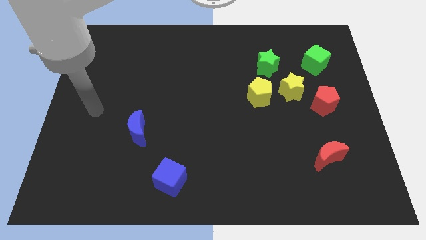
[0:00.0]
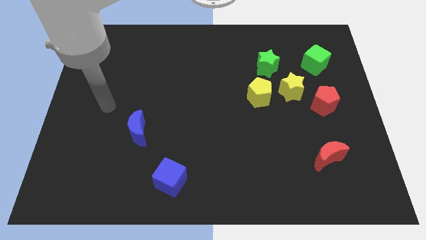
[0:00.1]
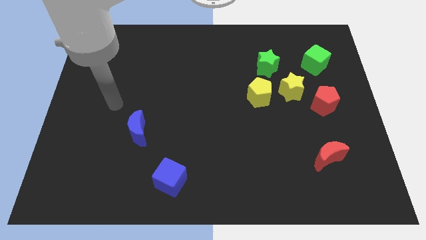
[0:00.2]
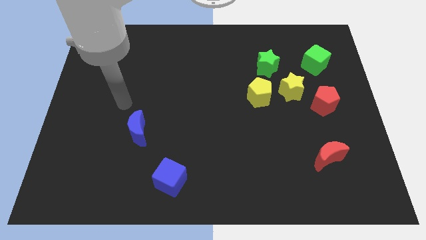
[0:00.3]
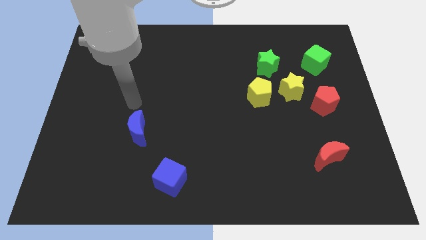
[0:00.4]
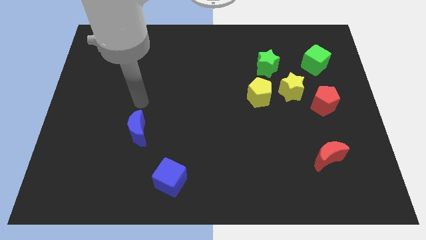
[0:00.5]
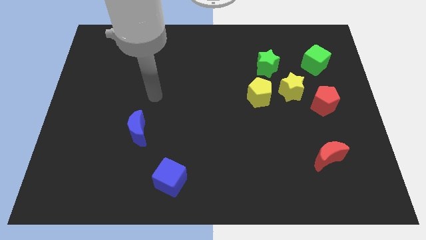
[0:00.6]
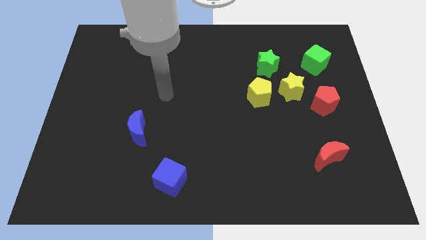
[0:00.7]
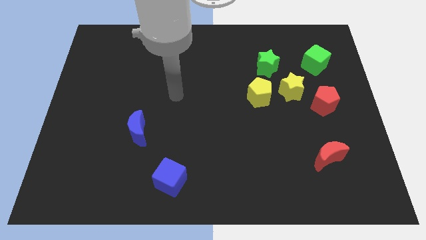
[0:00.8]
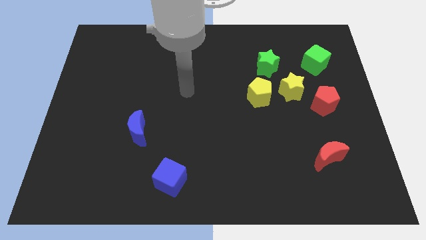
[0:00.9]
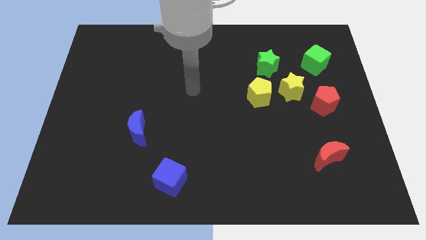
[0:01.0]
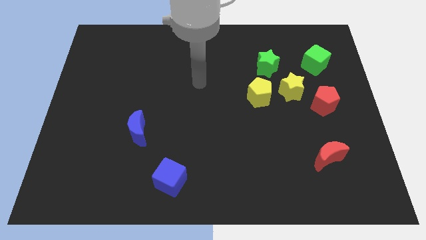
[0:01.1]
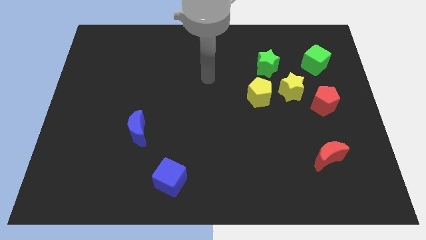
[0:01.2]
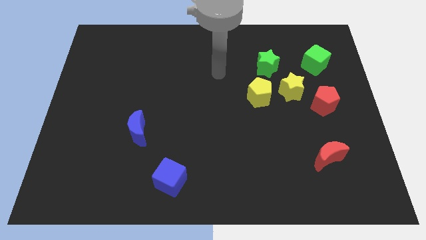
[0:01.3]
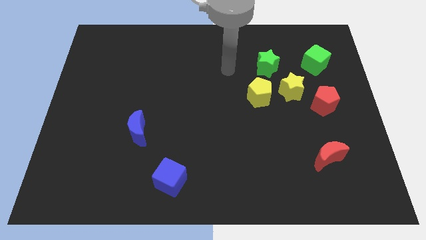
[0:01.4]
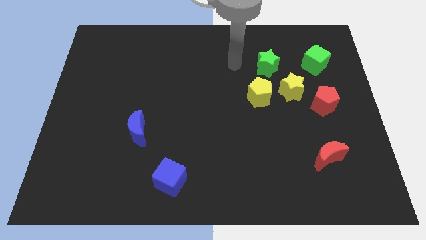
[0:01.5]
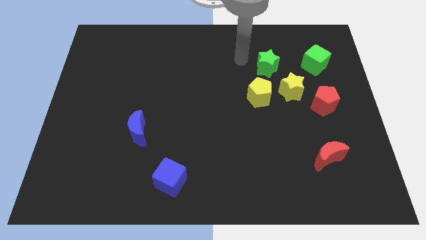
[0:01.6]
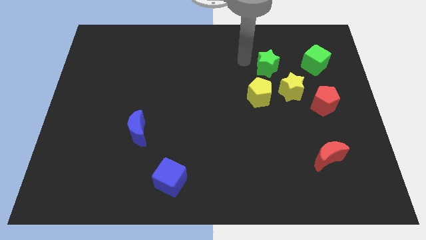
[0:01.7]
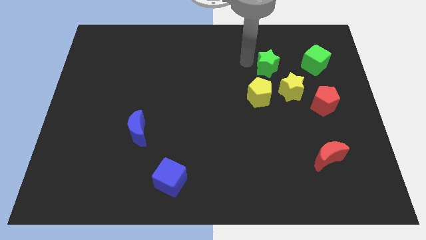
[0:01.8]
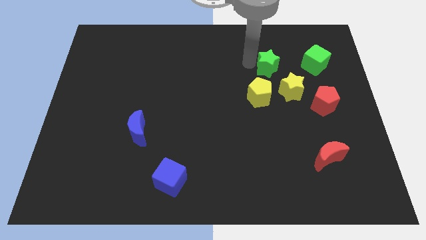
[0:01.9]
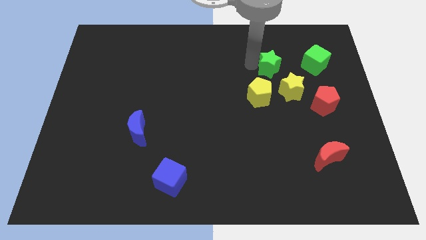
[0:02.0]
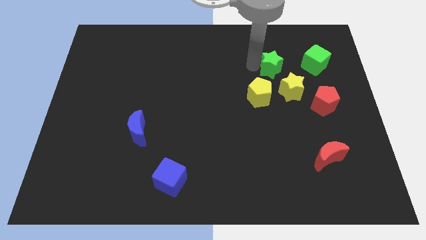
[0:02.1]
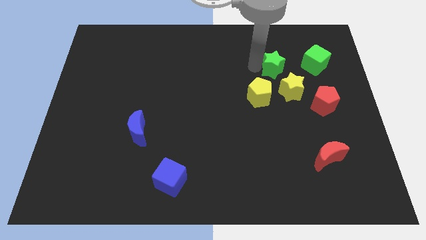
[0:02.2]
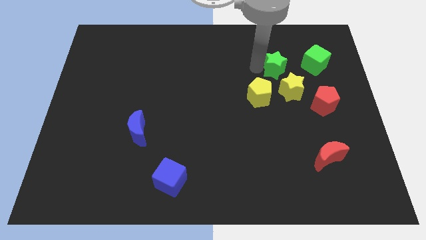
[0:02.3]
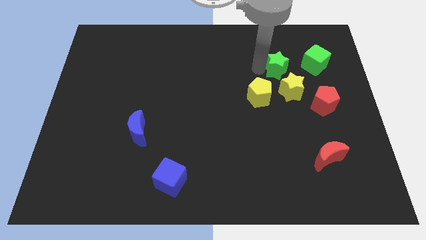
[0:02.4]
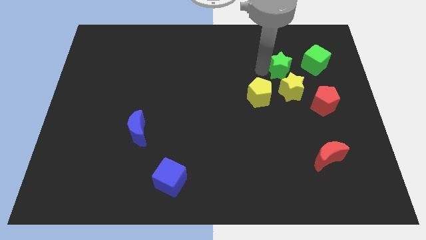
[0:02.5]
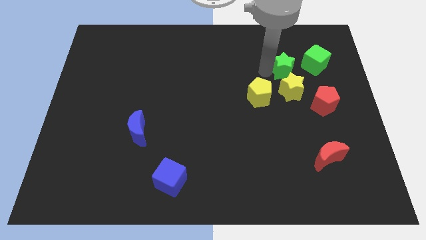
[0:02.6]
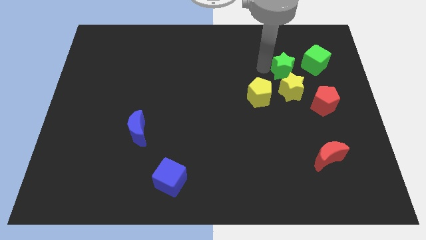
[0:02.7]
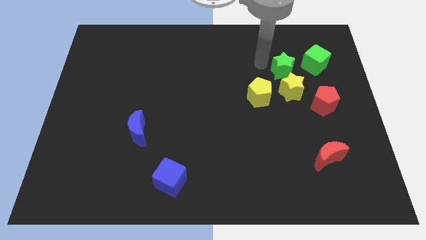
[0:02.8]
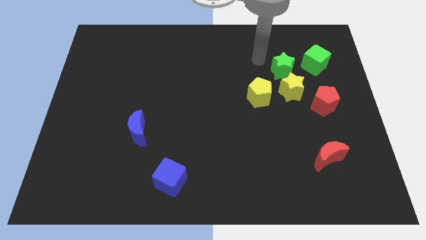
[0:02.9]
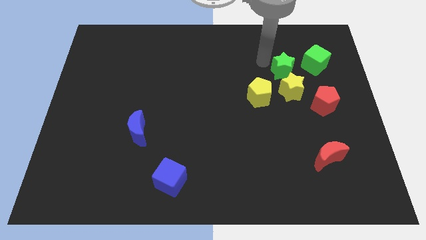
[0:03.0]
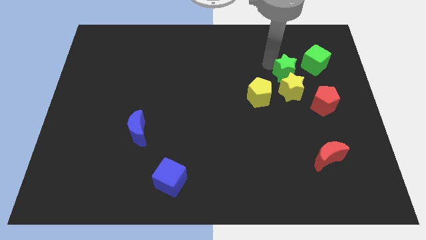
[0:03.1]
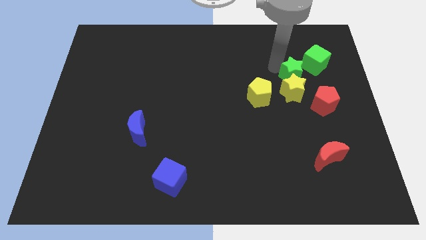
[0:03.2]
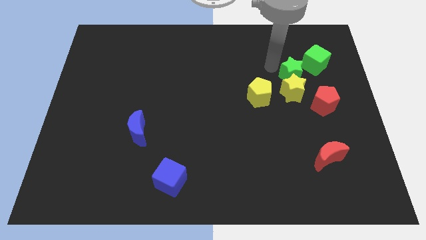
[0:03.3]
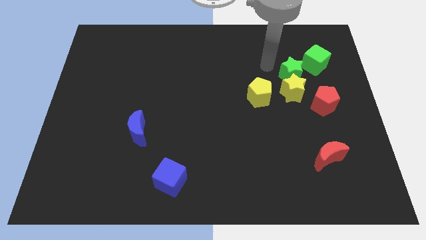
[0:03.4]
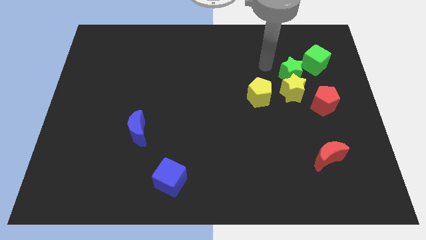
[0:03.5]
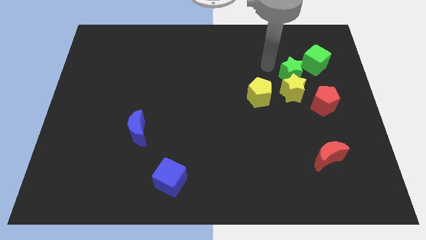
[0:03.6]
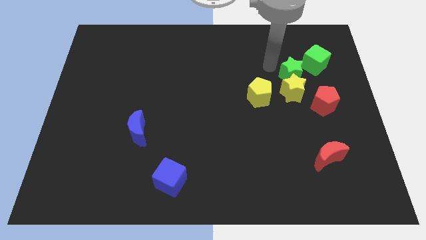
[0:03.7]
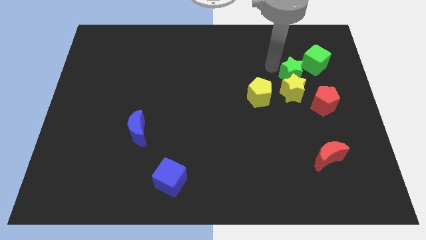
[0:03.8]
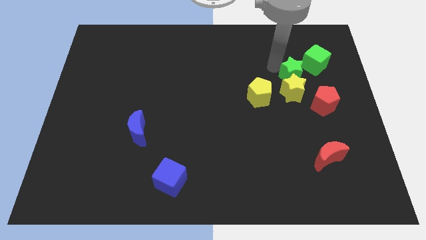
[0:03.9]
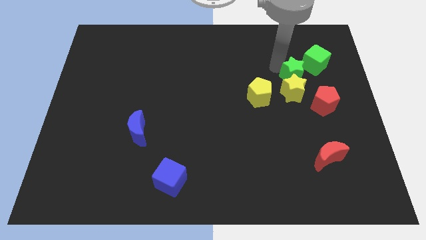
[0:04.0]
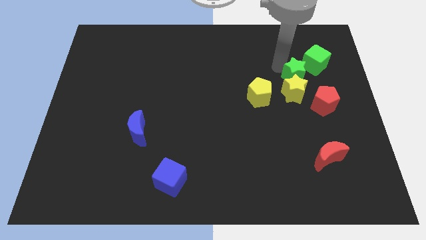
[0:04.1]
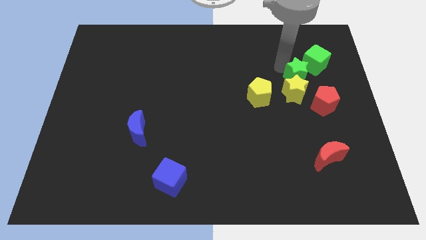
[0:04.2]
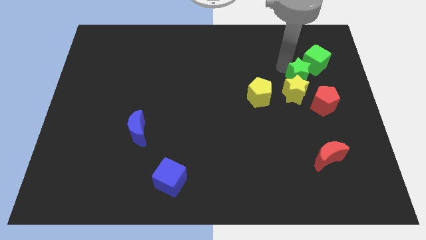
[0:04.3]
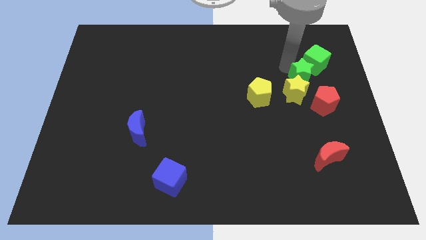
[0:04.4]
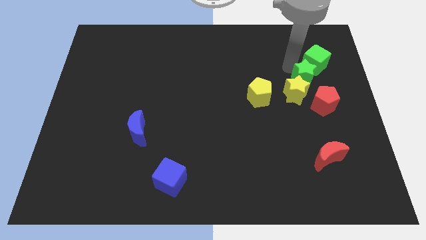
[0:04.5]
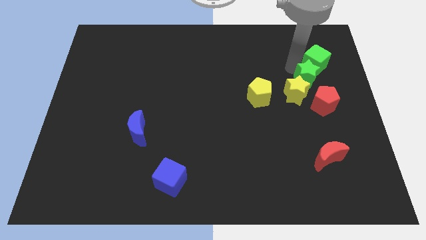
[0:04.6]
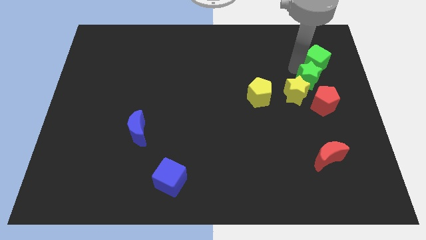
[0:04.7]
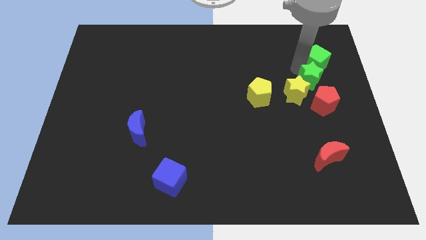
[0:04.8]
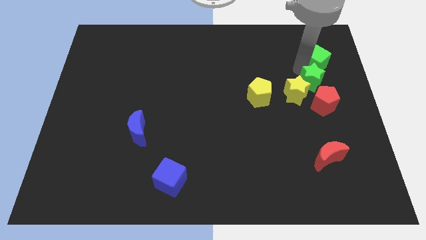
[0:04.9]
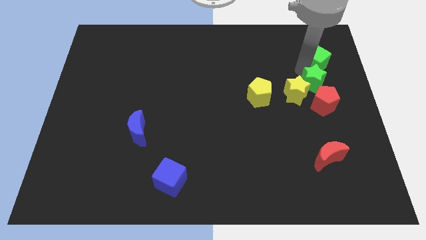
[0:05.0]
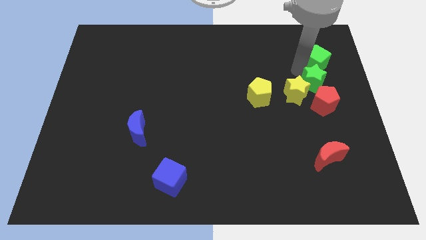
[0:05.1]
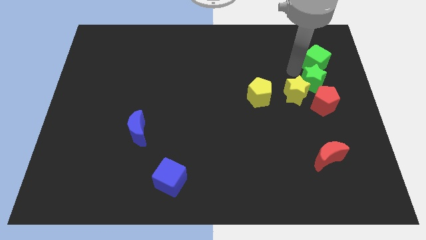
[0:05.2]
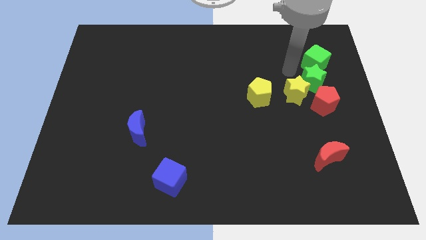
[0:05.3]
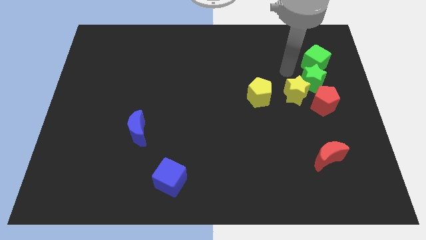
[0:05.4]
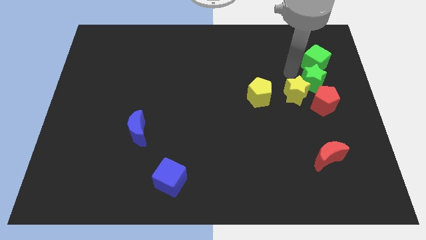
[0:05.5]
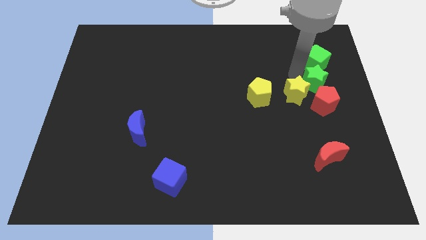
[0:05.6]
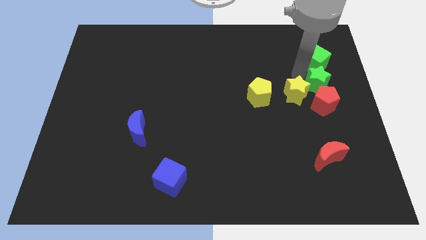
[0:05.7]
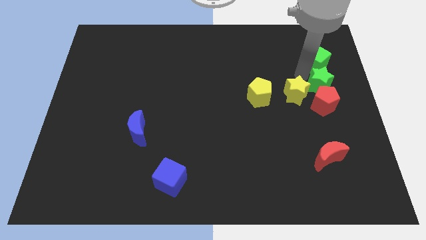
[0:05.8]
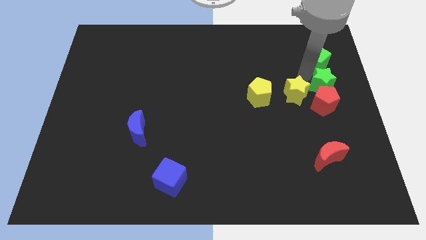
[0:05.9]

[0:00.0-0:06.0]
put the green star to the red pentagon

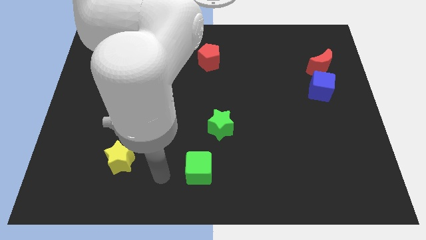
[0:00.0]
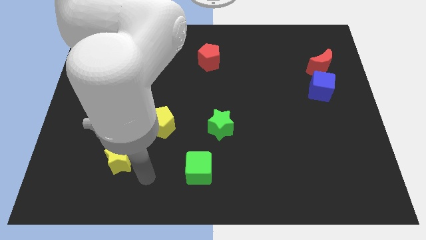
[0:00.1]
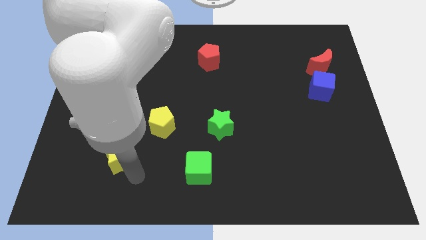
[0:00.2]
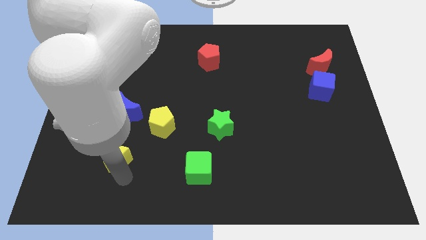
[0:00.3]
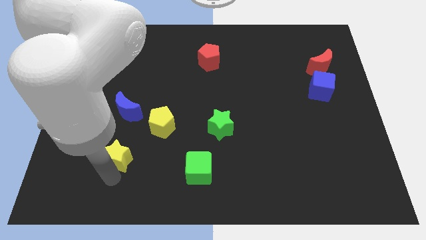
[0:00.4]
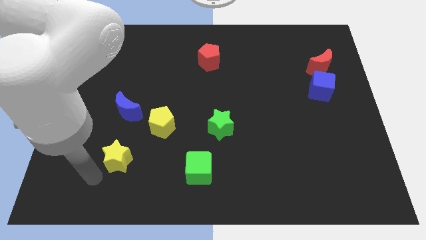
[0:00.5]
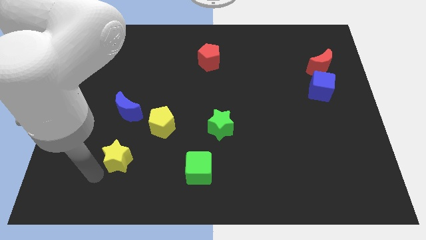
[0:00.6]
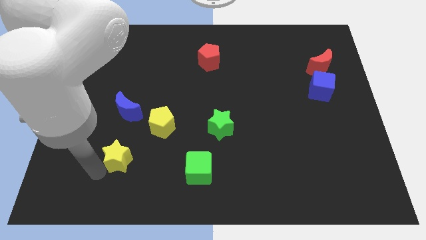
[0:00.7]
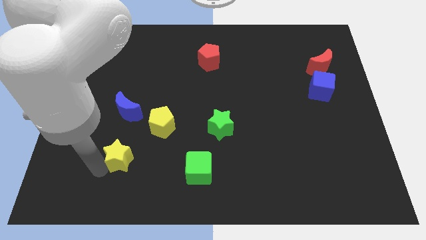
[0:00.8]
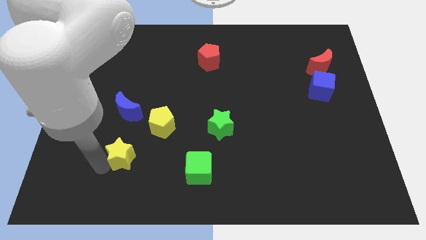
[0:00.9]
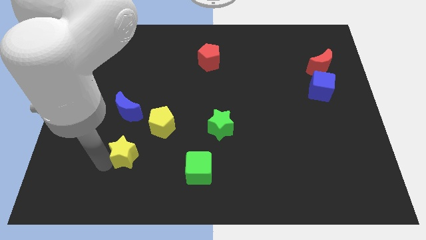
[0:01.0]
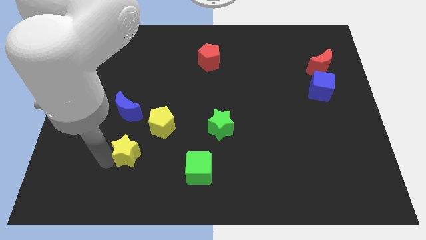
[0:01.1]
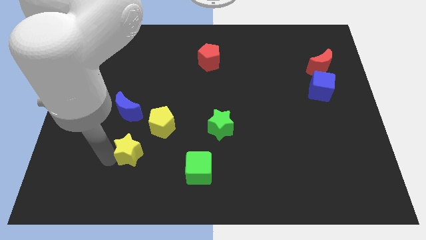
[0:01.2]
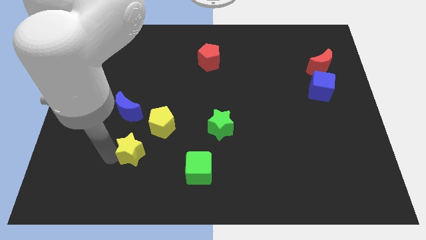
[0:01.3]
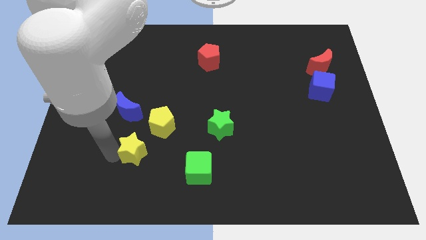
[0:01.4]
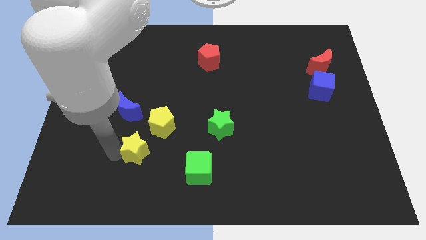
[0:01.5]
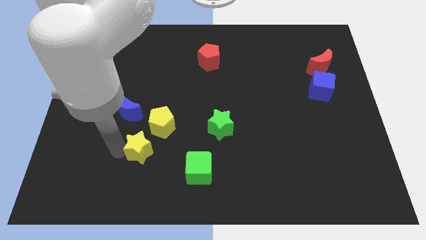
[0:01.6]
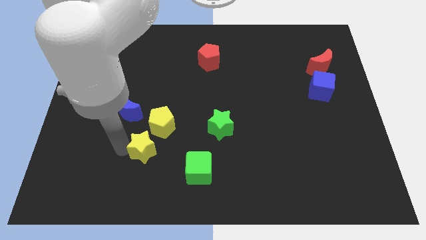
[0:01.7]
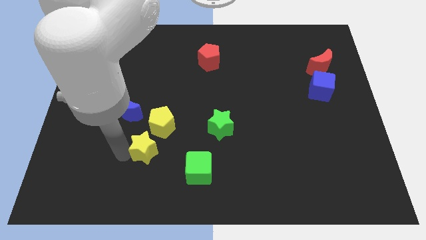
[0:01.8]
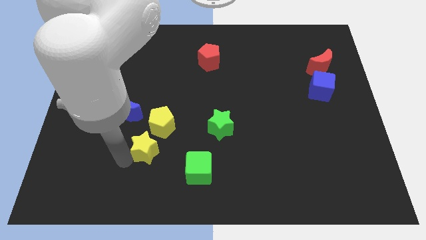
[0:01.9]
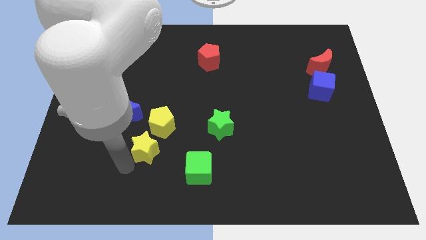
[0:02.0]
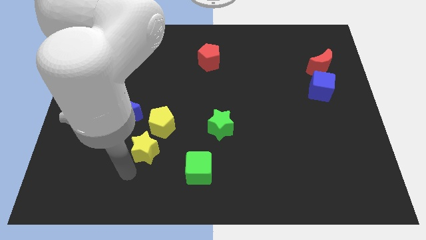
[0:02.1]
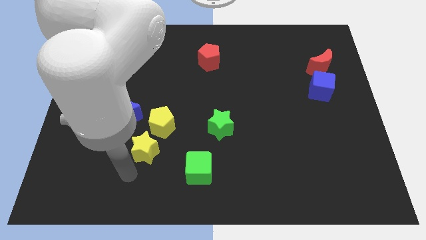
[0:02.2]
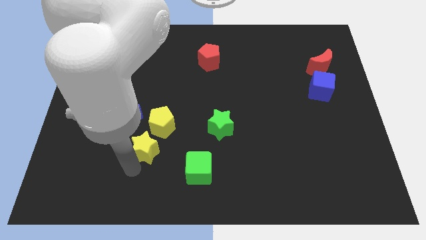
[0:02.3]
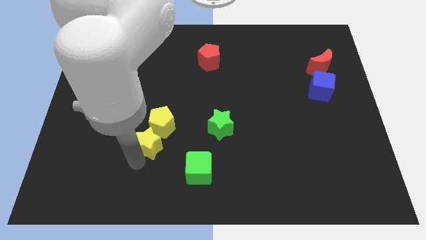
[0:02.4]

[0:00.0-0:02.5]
put the yellow star close to the yellow pentagon
